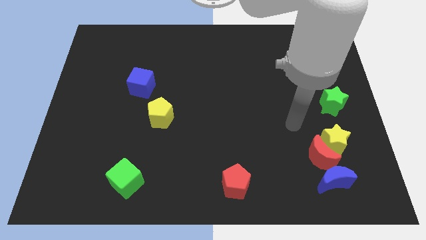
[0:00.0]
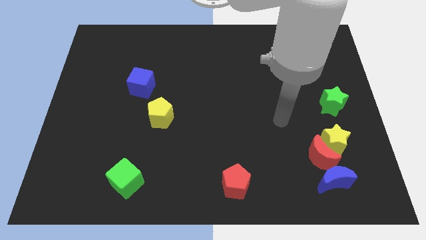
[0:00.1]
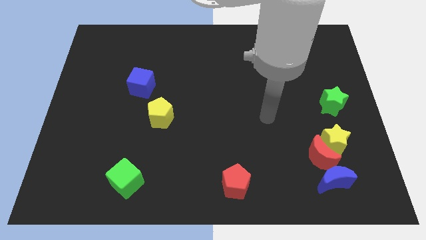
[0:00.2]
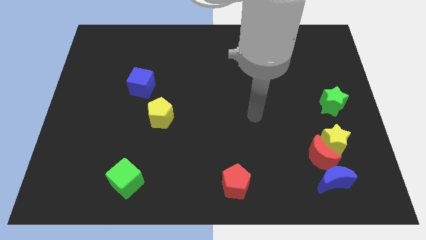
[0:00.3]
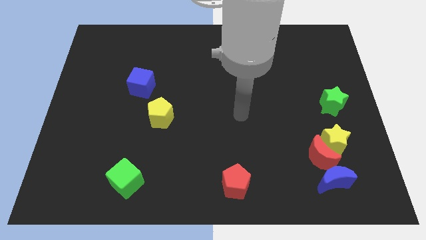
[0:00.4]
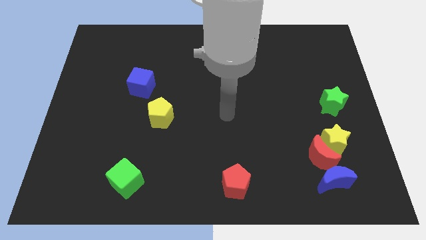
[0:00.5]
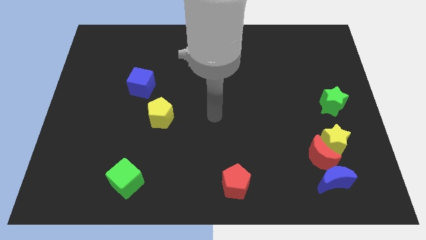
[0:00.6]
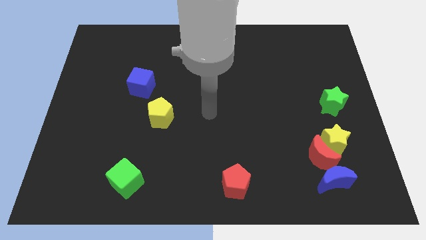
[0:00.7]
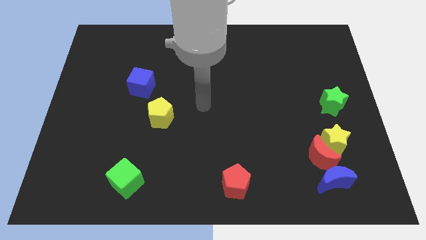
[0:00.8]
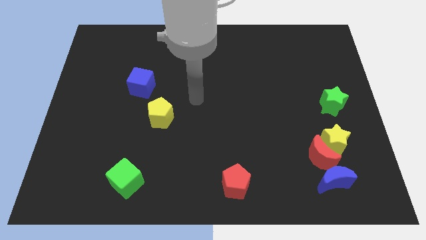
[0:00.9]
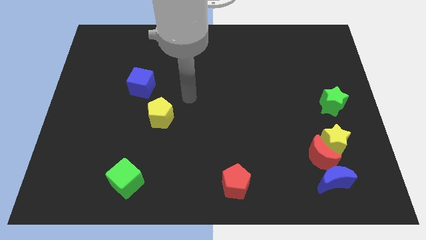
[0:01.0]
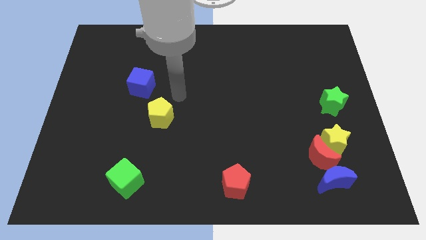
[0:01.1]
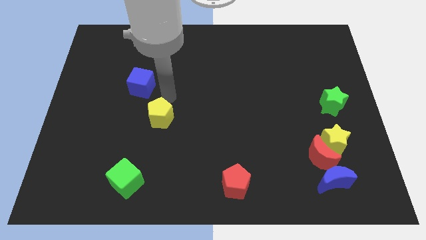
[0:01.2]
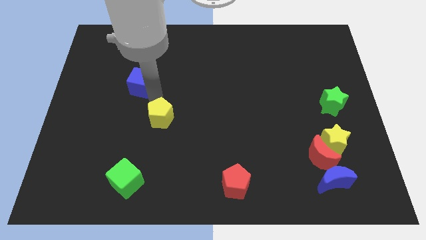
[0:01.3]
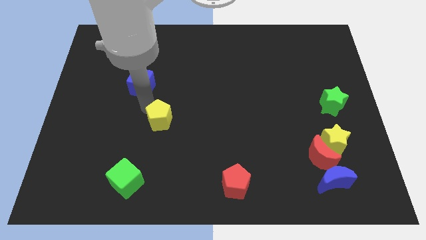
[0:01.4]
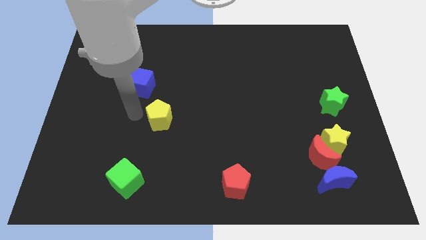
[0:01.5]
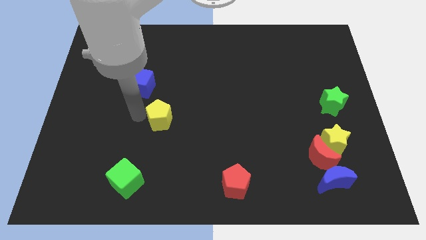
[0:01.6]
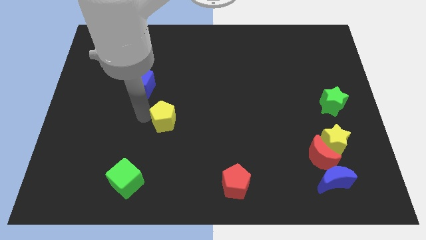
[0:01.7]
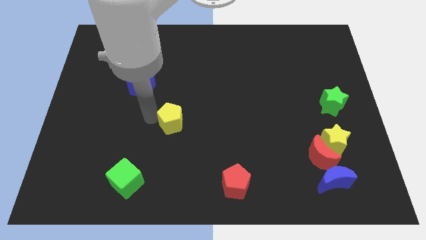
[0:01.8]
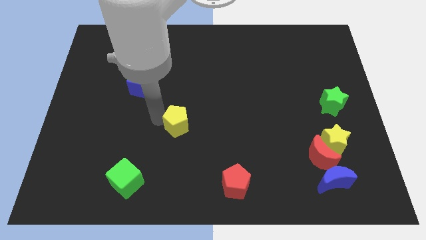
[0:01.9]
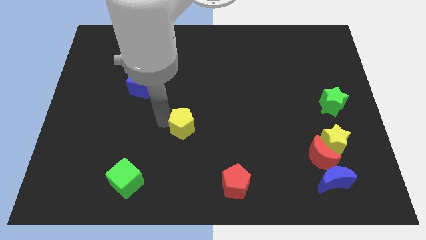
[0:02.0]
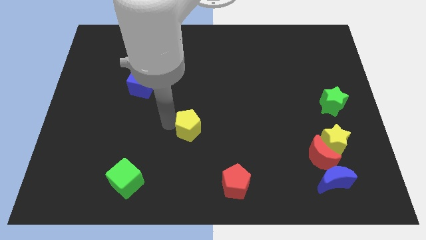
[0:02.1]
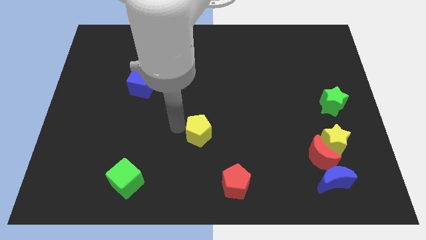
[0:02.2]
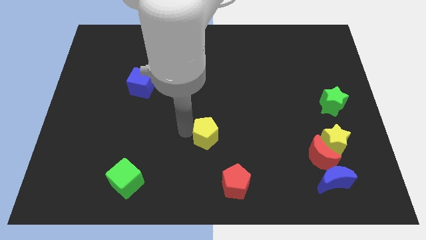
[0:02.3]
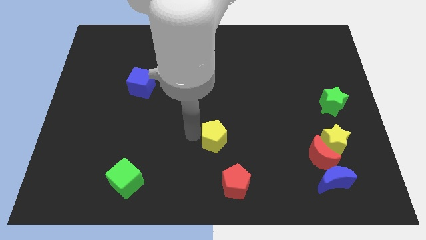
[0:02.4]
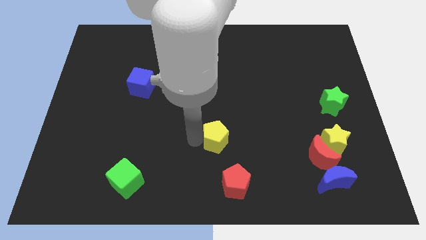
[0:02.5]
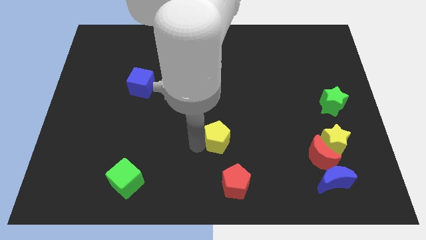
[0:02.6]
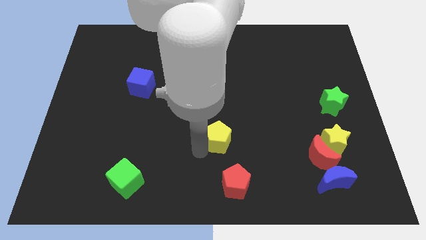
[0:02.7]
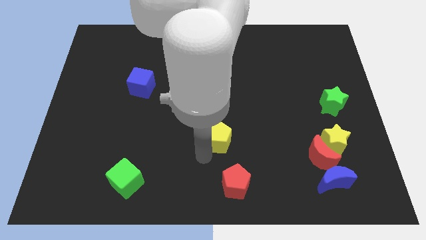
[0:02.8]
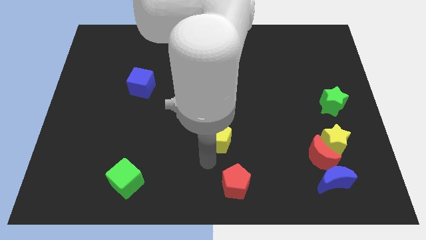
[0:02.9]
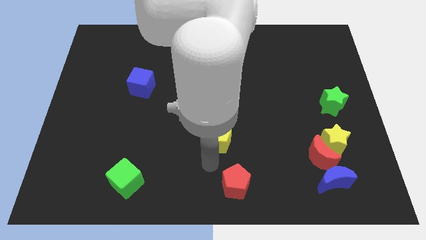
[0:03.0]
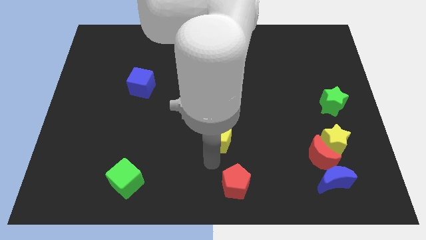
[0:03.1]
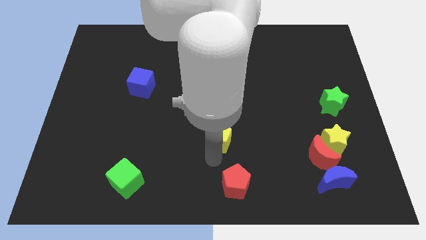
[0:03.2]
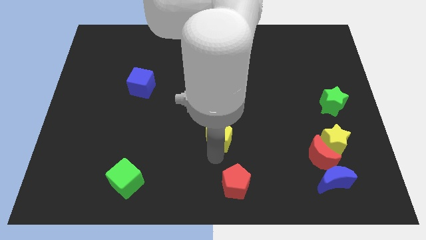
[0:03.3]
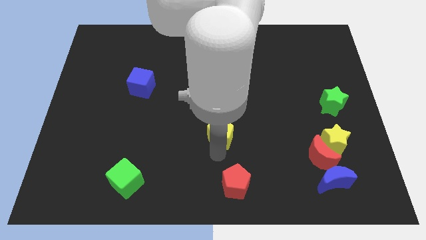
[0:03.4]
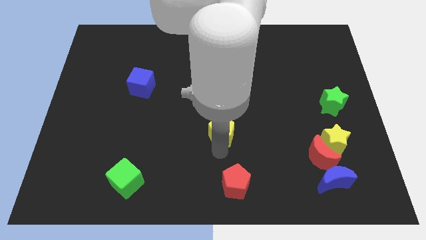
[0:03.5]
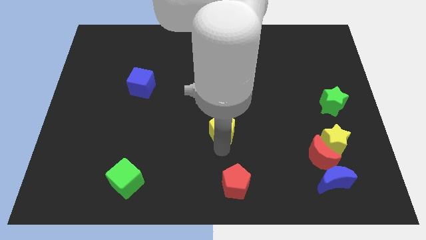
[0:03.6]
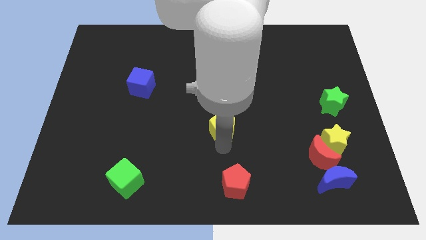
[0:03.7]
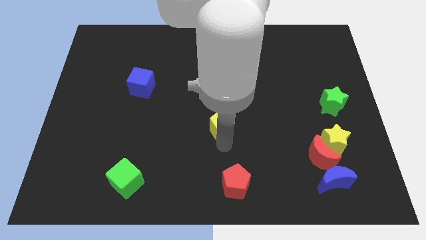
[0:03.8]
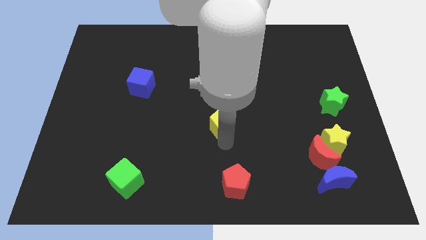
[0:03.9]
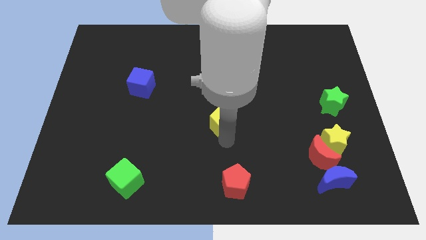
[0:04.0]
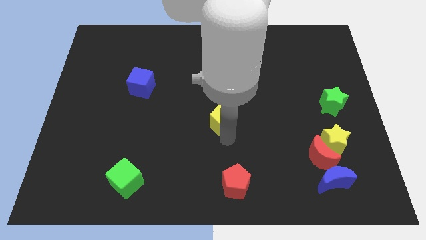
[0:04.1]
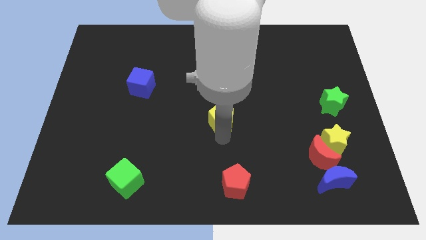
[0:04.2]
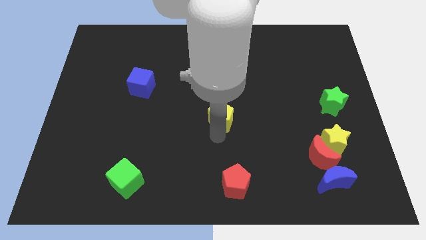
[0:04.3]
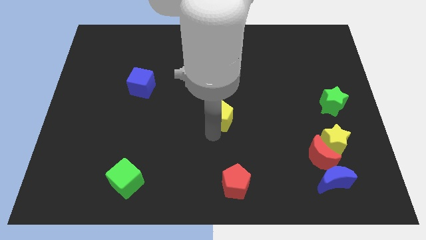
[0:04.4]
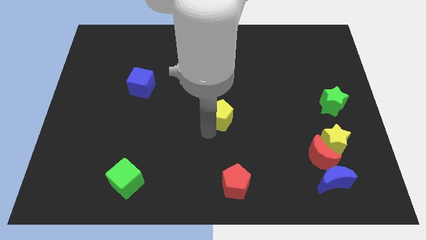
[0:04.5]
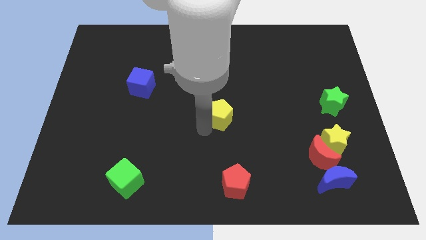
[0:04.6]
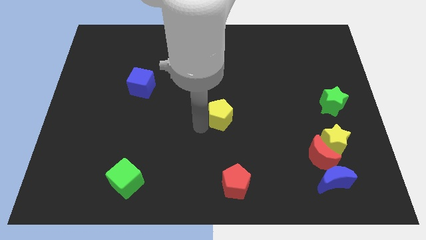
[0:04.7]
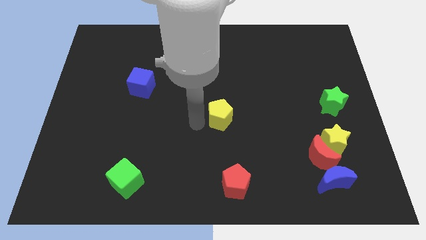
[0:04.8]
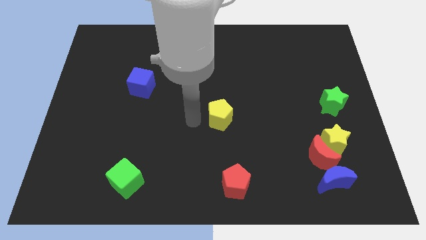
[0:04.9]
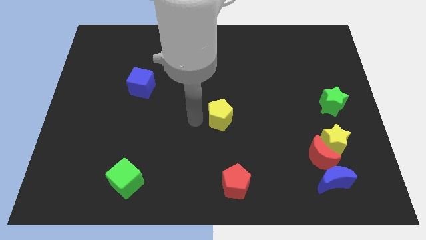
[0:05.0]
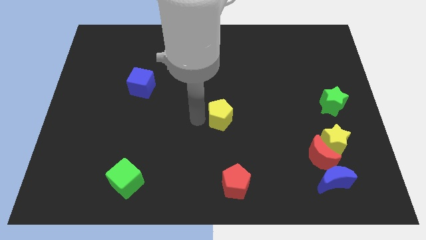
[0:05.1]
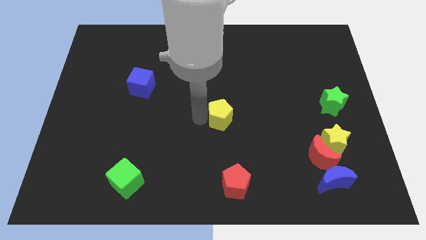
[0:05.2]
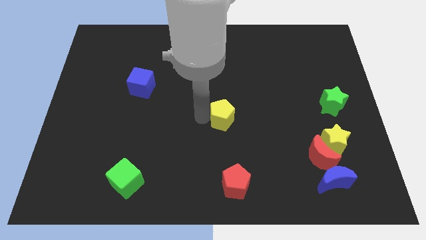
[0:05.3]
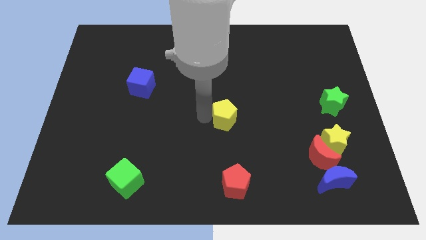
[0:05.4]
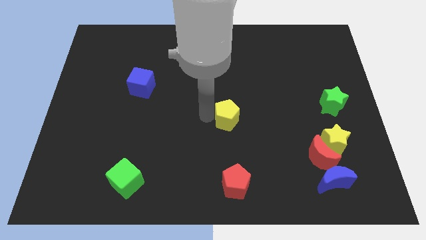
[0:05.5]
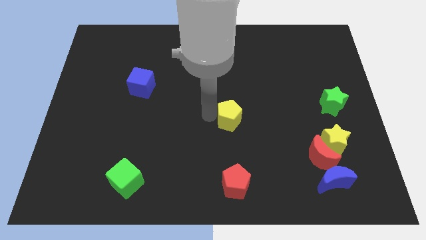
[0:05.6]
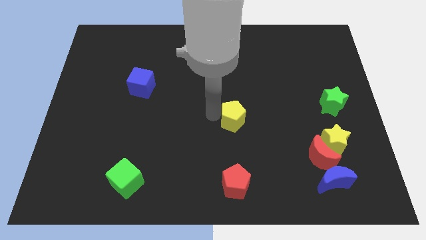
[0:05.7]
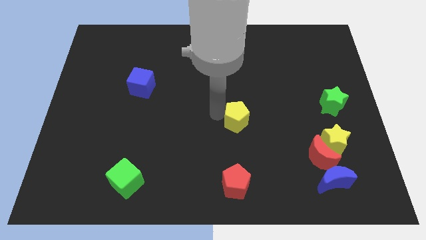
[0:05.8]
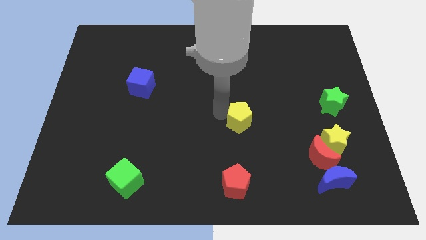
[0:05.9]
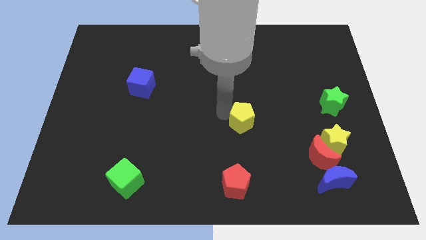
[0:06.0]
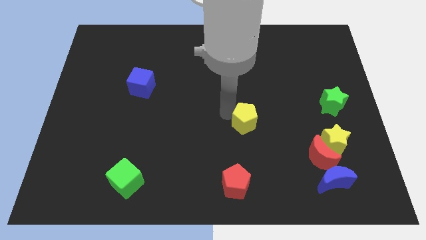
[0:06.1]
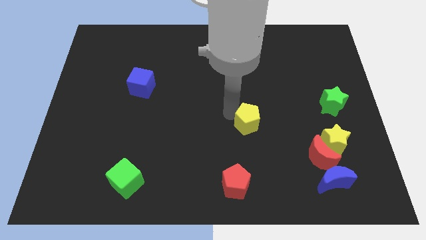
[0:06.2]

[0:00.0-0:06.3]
slide the yellow pentagon right

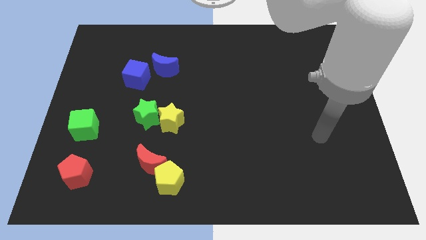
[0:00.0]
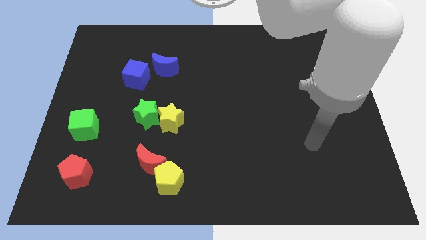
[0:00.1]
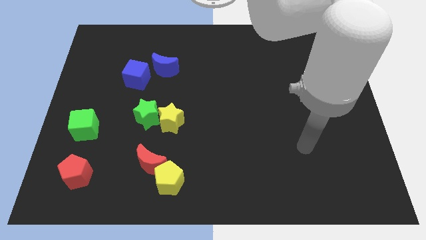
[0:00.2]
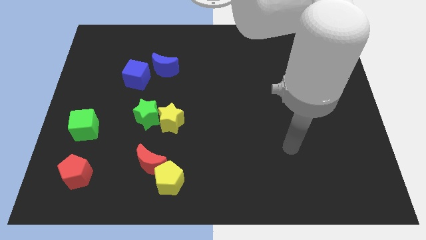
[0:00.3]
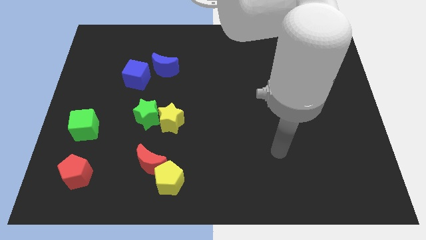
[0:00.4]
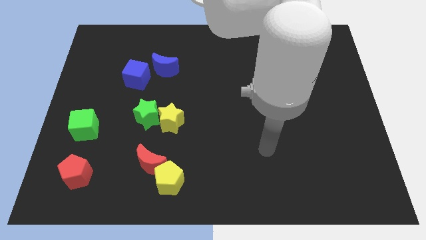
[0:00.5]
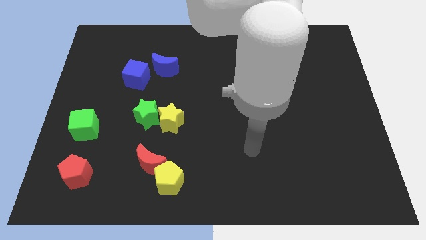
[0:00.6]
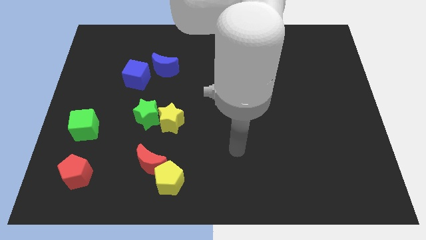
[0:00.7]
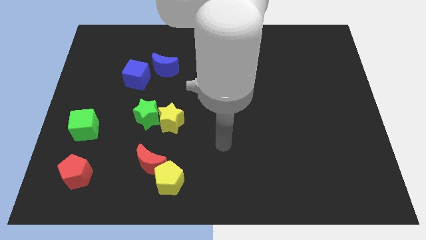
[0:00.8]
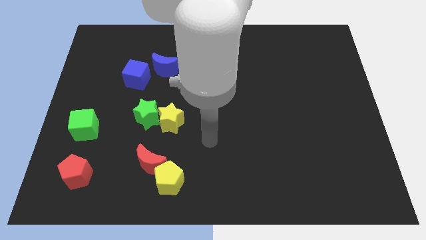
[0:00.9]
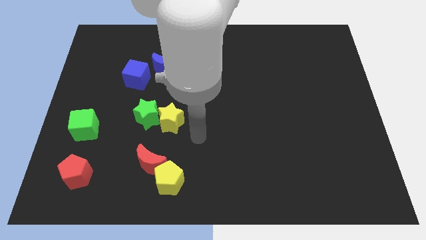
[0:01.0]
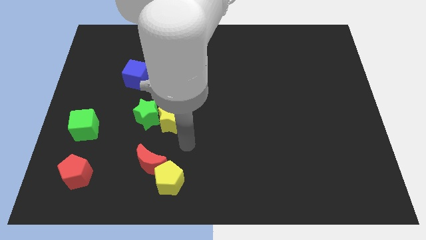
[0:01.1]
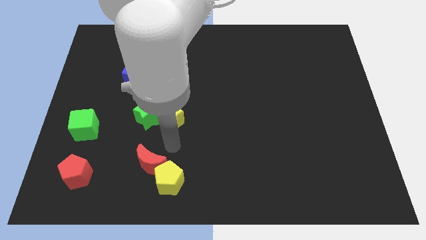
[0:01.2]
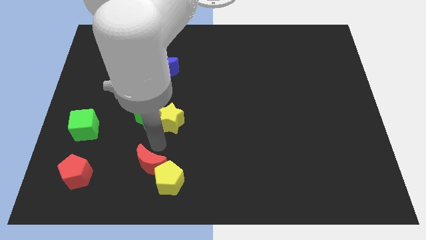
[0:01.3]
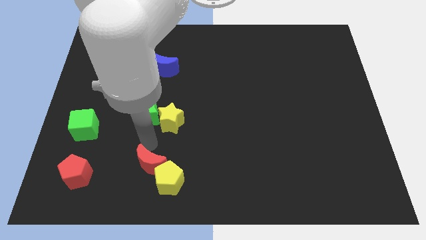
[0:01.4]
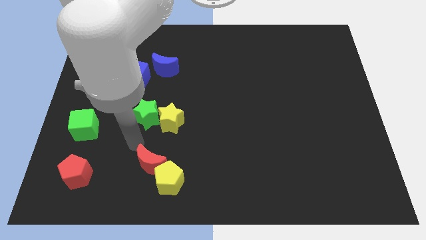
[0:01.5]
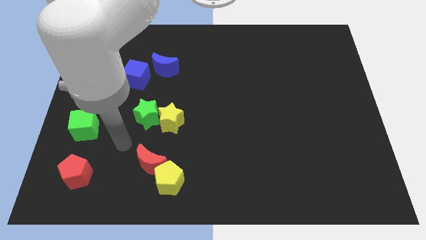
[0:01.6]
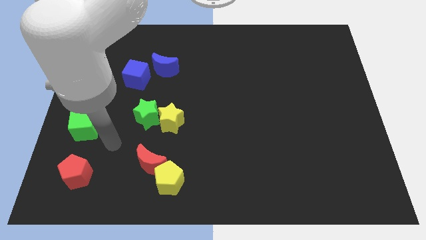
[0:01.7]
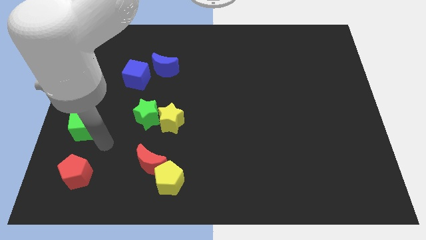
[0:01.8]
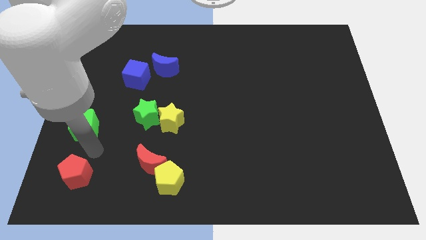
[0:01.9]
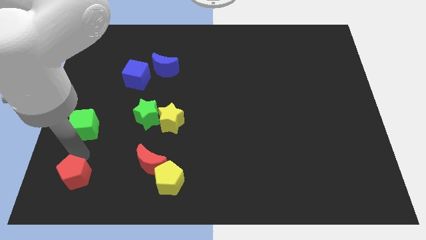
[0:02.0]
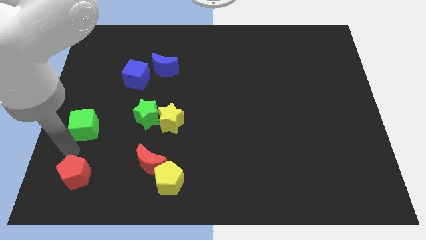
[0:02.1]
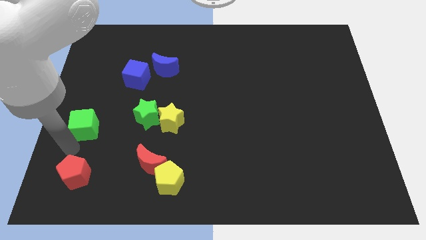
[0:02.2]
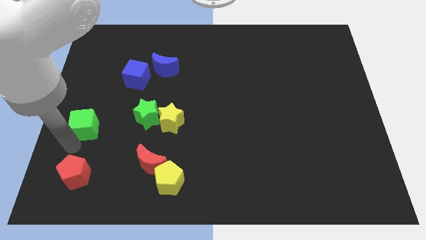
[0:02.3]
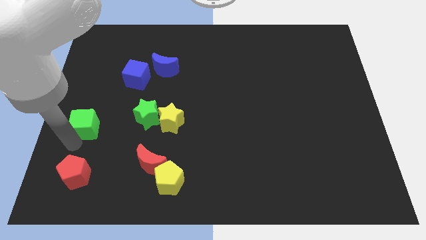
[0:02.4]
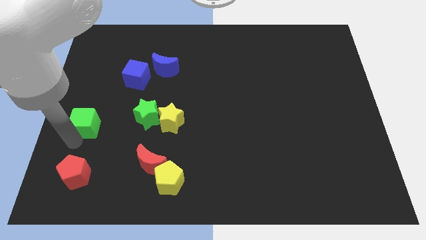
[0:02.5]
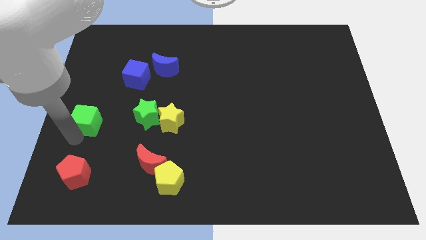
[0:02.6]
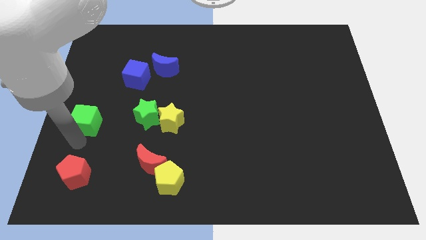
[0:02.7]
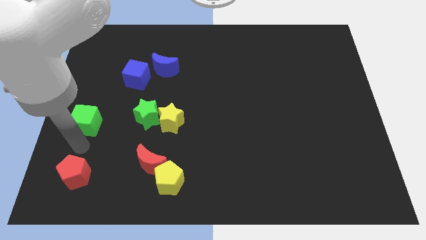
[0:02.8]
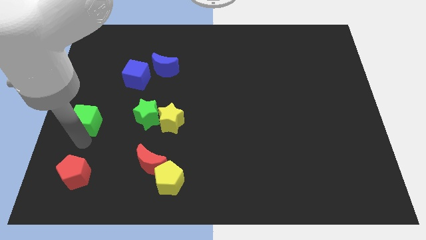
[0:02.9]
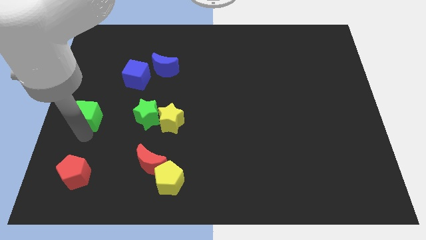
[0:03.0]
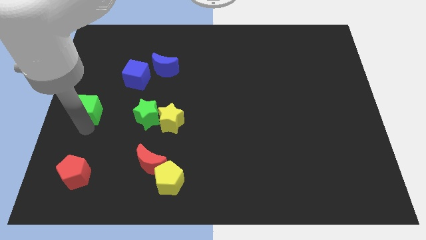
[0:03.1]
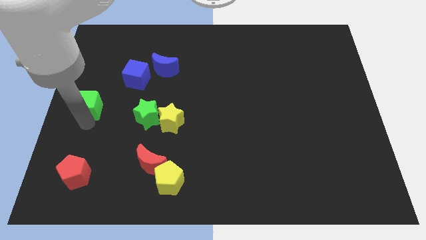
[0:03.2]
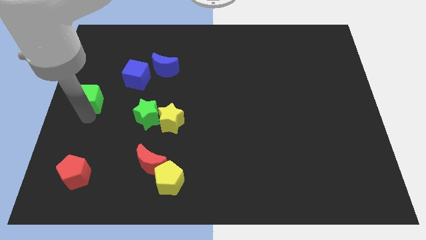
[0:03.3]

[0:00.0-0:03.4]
slightly push the green cube upwards
